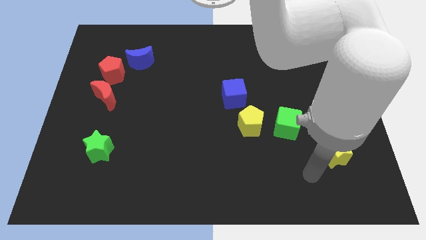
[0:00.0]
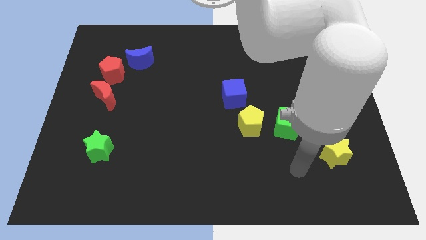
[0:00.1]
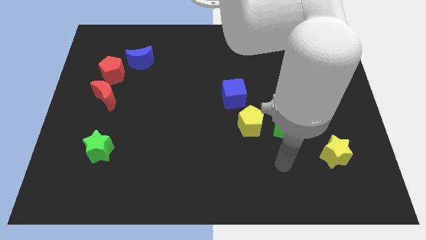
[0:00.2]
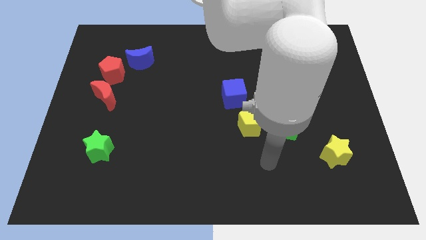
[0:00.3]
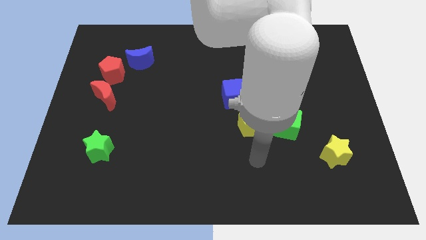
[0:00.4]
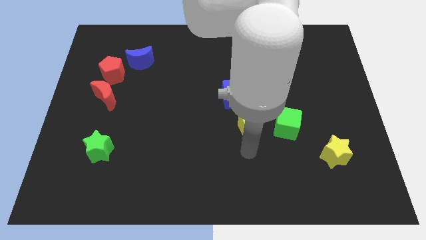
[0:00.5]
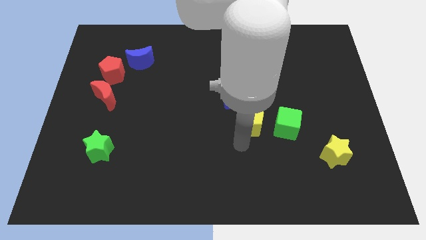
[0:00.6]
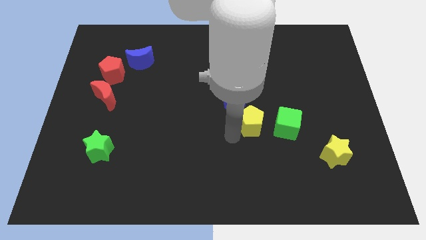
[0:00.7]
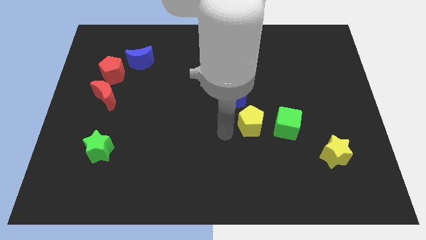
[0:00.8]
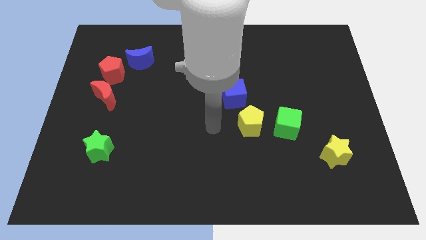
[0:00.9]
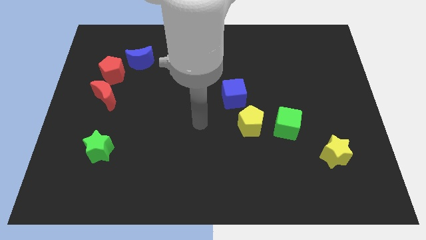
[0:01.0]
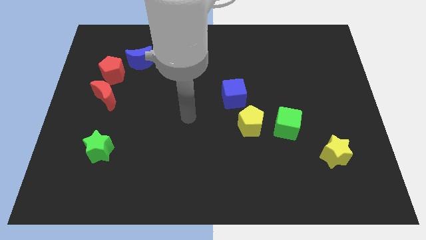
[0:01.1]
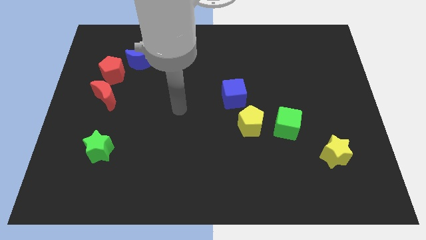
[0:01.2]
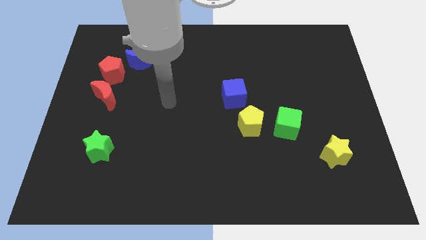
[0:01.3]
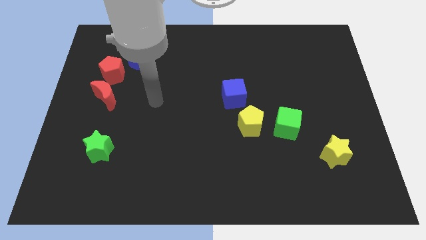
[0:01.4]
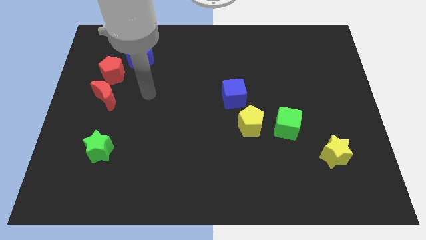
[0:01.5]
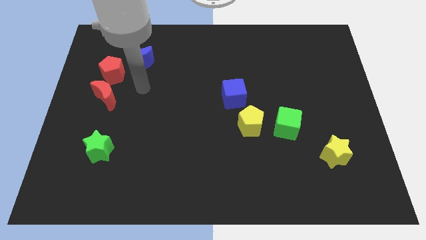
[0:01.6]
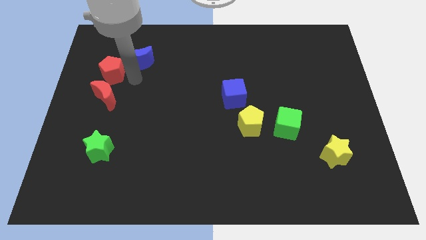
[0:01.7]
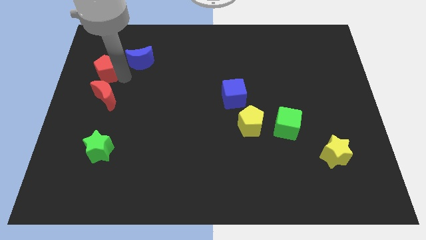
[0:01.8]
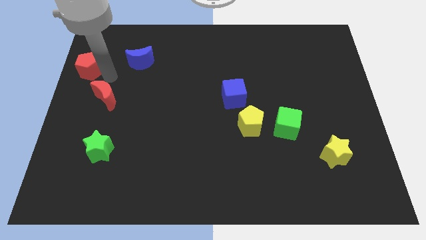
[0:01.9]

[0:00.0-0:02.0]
pull the red moon apart from the red pentagon

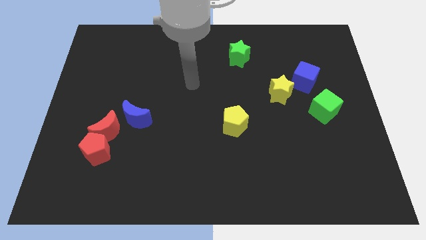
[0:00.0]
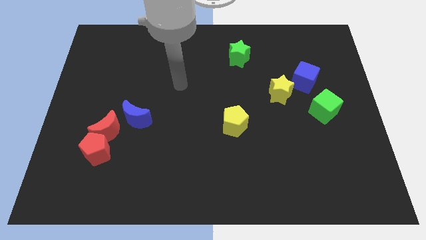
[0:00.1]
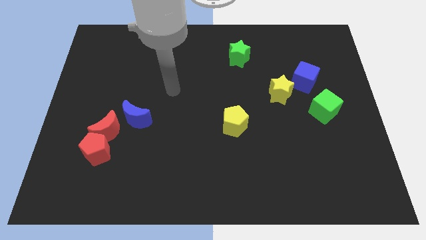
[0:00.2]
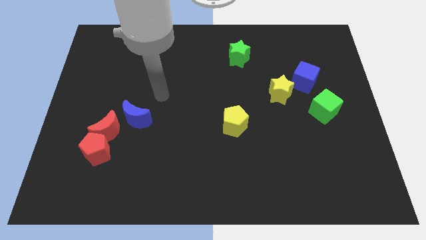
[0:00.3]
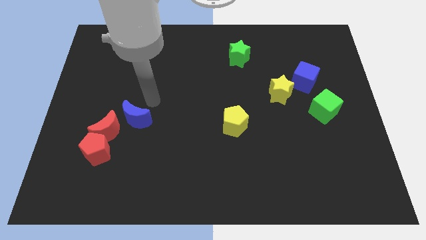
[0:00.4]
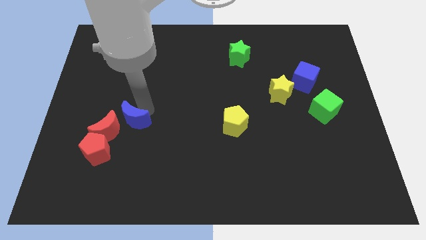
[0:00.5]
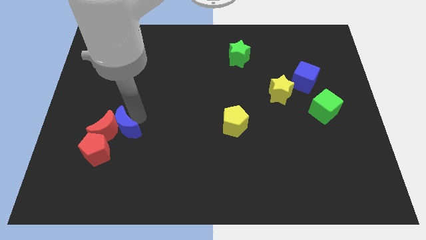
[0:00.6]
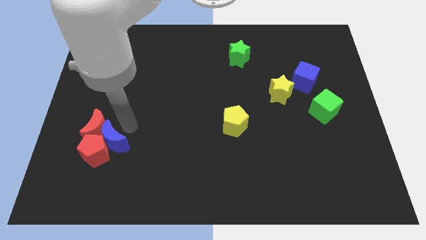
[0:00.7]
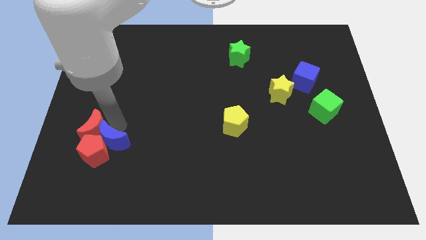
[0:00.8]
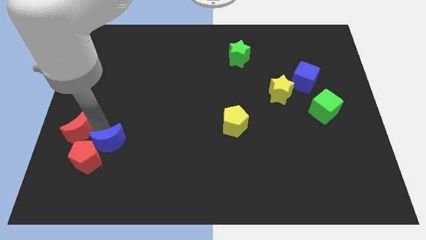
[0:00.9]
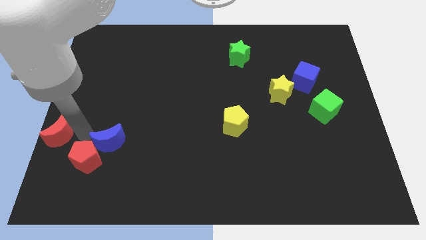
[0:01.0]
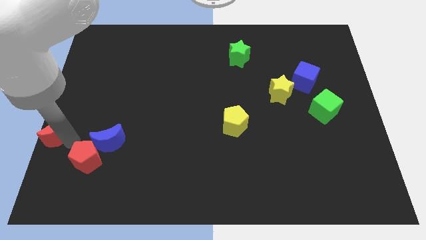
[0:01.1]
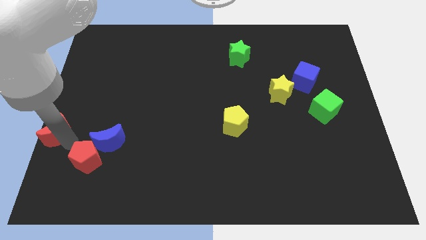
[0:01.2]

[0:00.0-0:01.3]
move the red pentagon away from the red moon

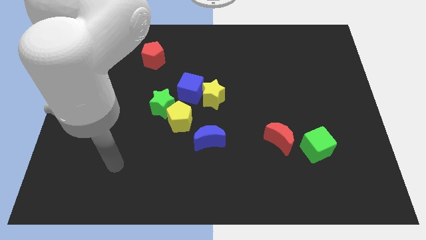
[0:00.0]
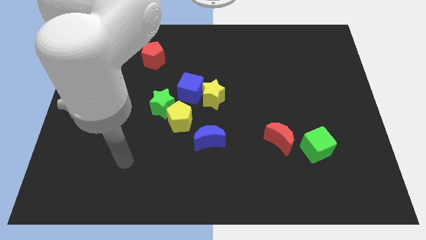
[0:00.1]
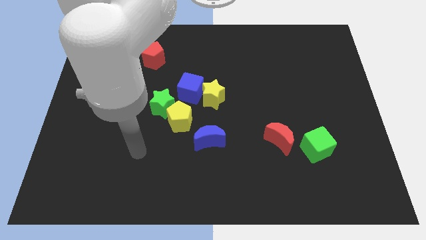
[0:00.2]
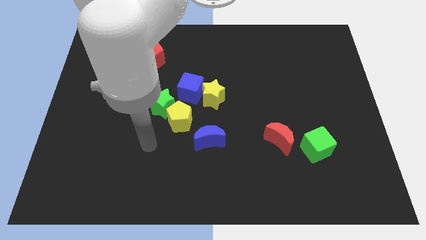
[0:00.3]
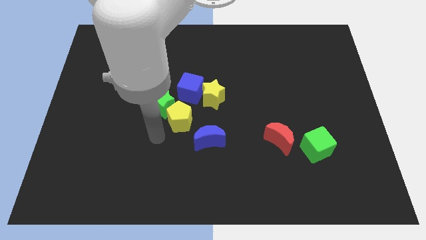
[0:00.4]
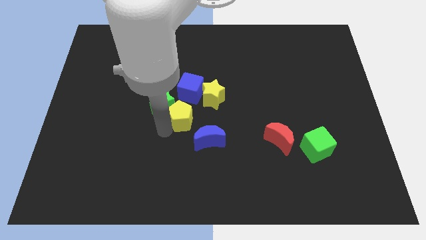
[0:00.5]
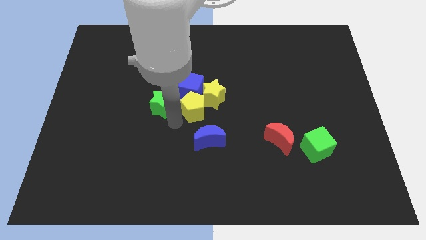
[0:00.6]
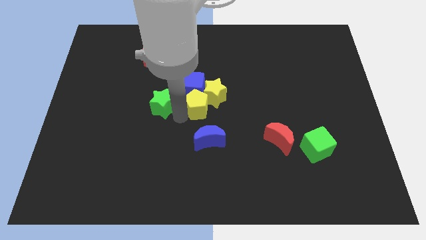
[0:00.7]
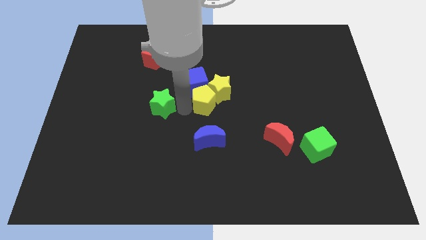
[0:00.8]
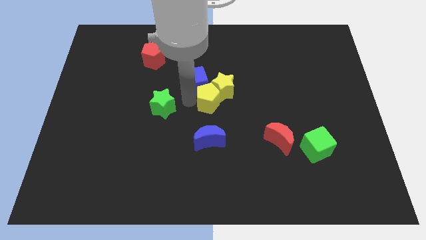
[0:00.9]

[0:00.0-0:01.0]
pull the green star apart from the yellow pentagon and blue cube

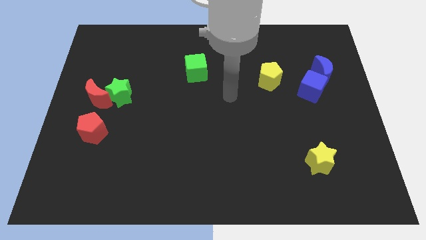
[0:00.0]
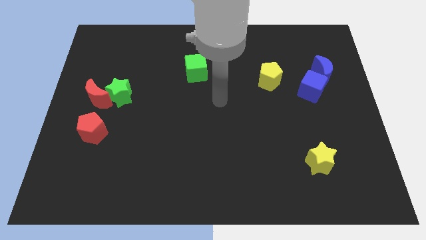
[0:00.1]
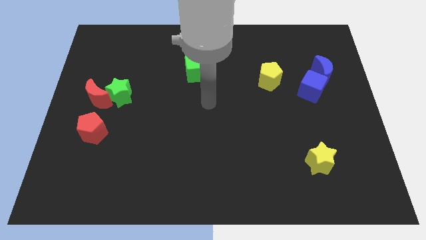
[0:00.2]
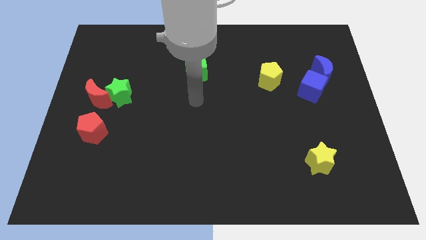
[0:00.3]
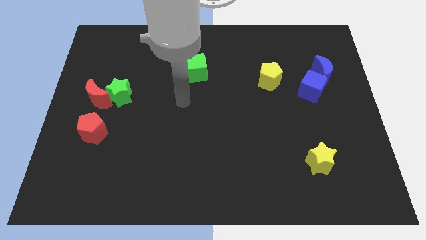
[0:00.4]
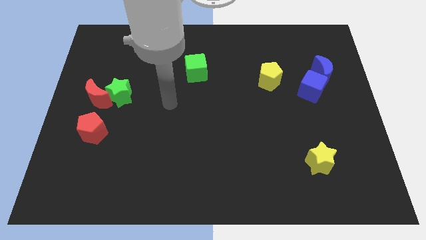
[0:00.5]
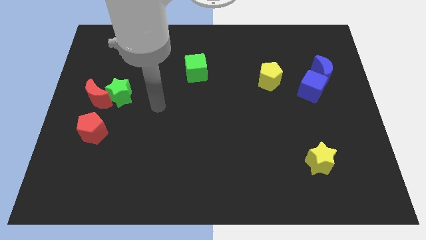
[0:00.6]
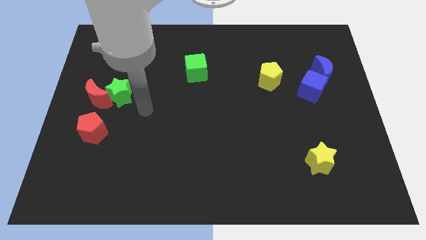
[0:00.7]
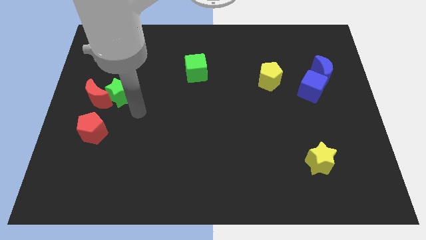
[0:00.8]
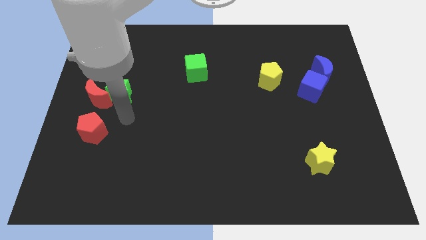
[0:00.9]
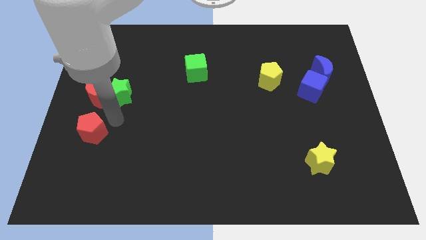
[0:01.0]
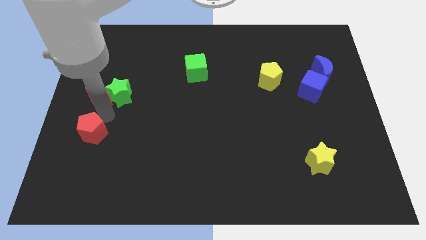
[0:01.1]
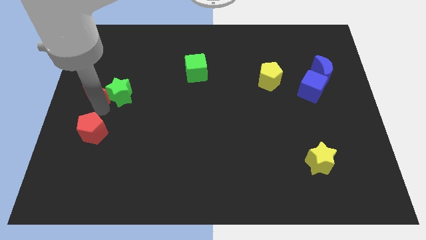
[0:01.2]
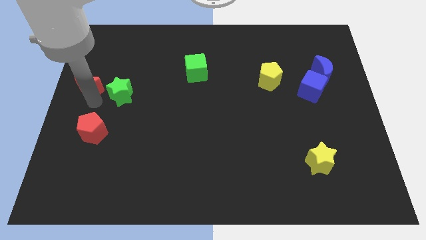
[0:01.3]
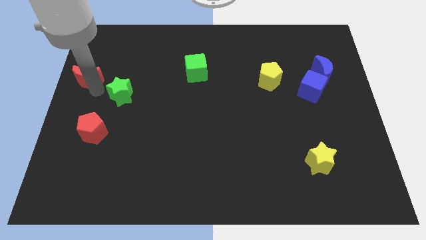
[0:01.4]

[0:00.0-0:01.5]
move the green star away from the red moon

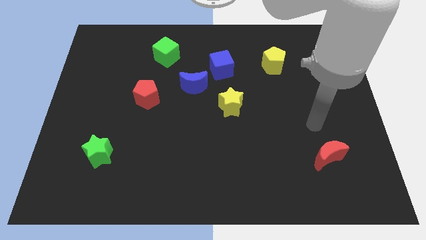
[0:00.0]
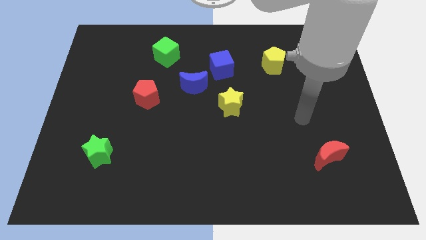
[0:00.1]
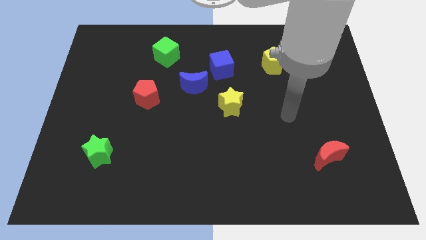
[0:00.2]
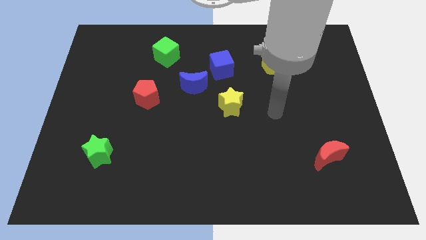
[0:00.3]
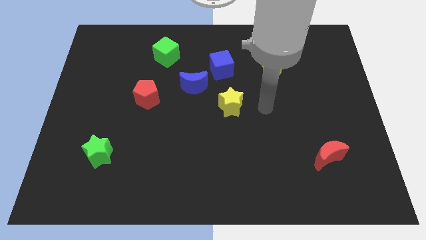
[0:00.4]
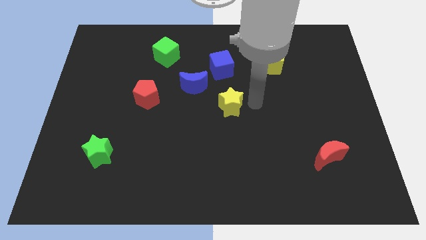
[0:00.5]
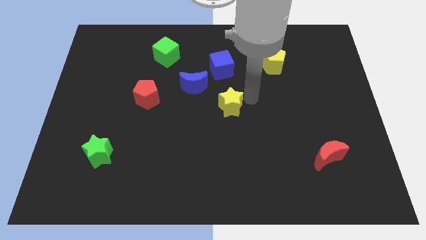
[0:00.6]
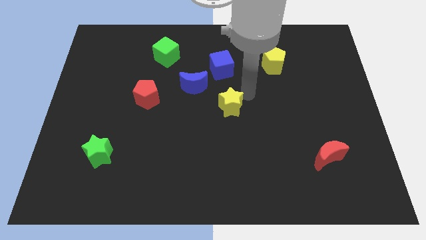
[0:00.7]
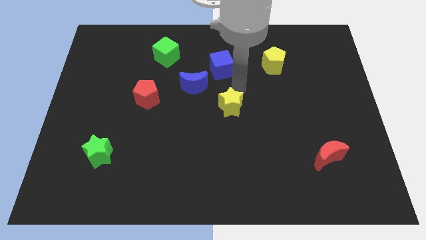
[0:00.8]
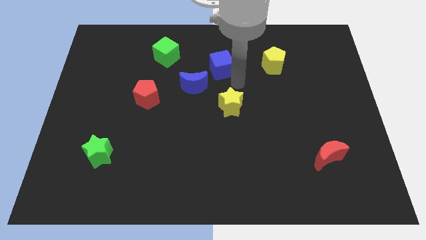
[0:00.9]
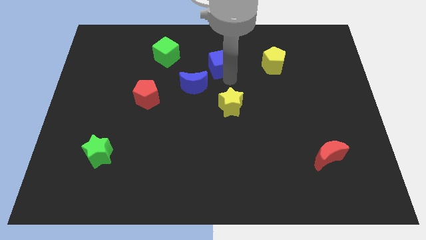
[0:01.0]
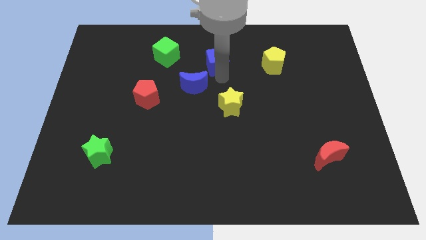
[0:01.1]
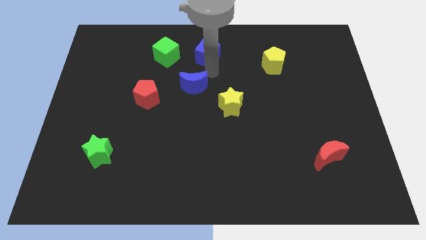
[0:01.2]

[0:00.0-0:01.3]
separate the blue moon from the blue cube

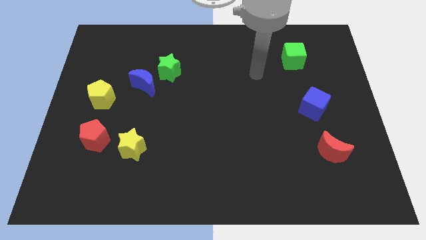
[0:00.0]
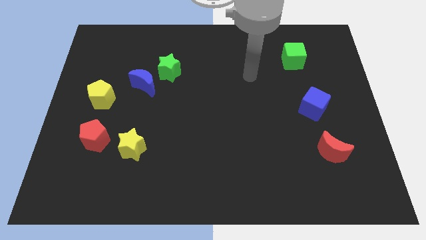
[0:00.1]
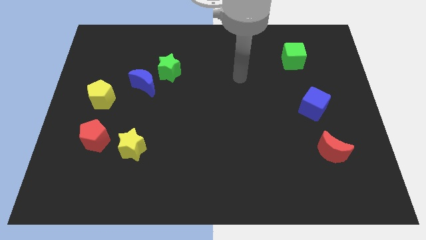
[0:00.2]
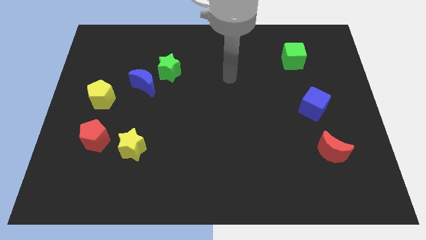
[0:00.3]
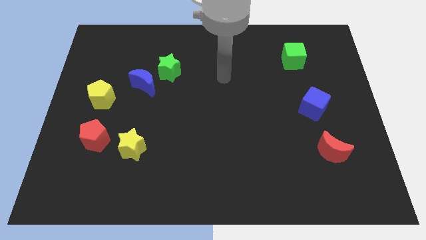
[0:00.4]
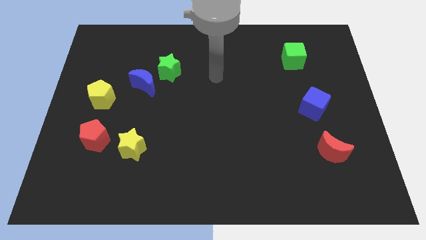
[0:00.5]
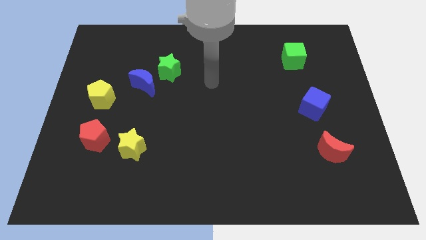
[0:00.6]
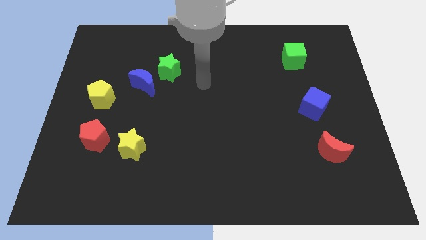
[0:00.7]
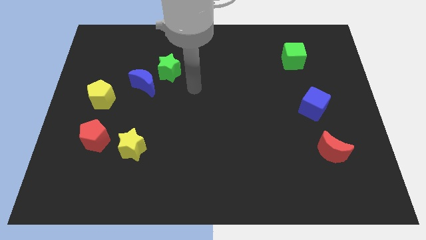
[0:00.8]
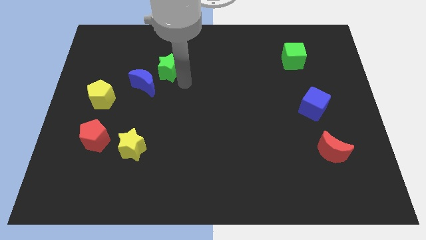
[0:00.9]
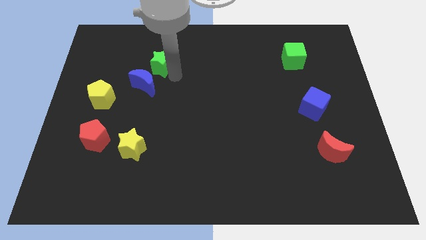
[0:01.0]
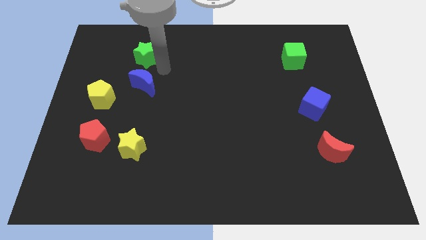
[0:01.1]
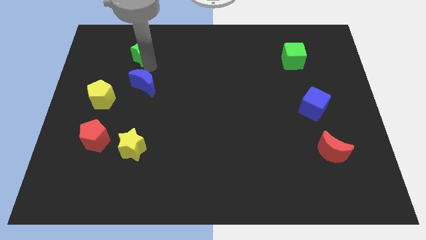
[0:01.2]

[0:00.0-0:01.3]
pull the blue moon apart from the green star

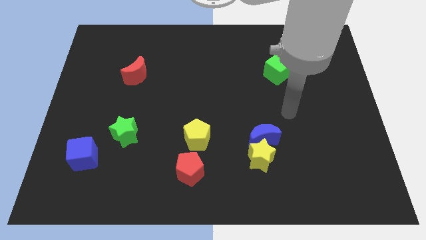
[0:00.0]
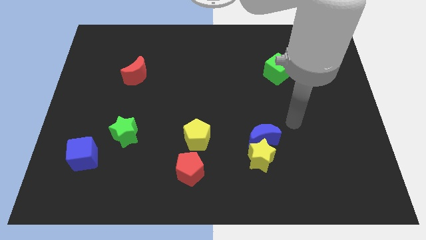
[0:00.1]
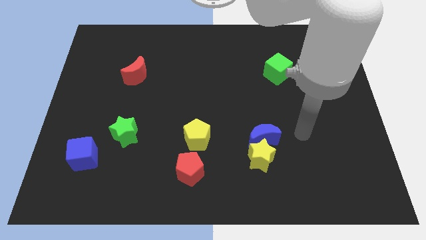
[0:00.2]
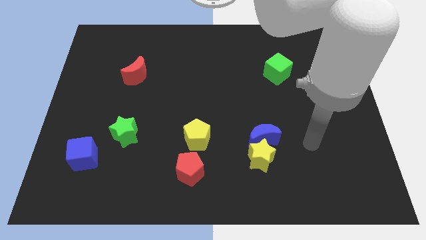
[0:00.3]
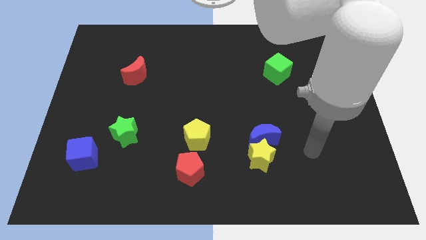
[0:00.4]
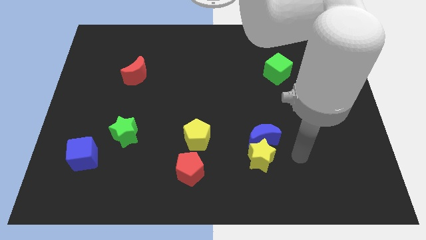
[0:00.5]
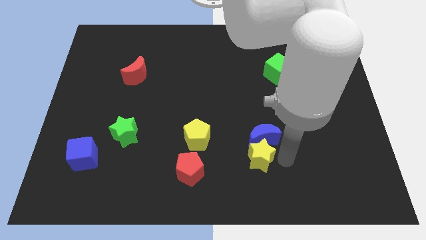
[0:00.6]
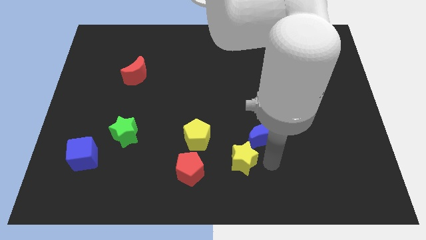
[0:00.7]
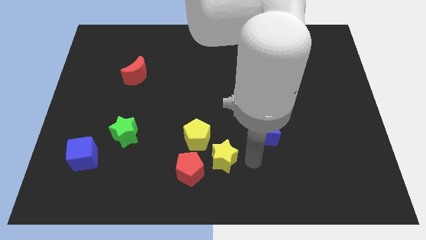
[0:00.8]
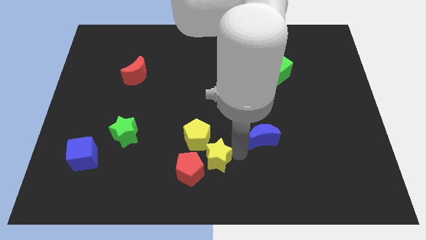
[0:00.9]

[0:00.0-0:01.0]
separate the blue moon from the yellow star
